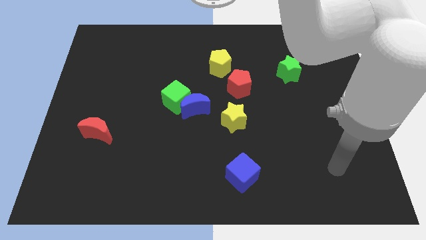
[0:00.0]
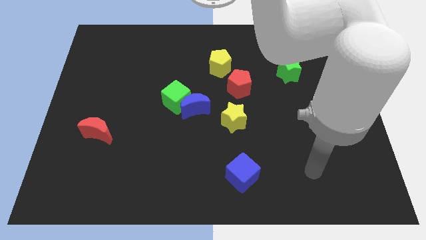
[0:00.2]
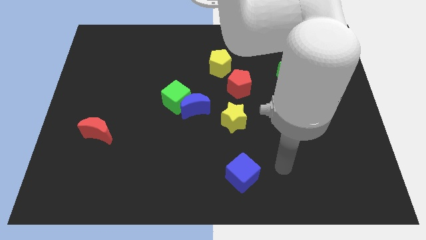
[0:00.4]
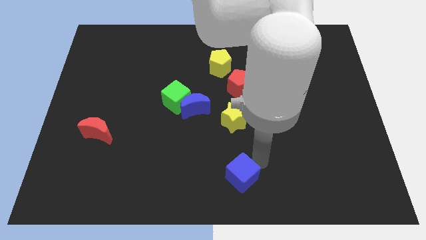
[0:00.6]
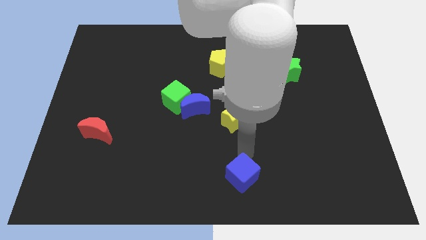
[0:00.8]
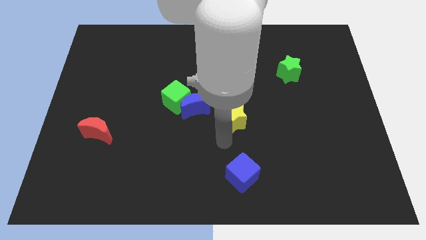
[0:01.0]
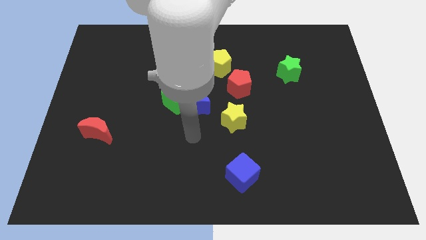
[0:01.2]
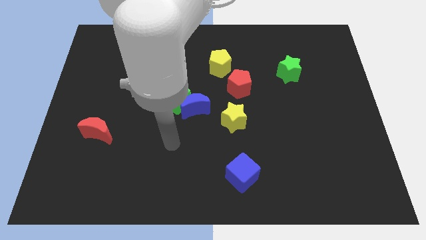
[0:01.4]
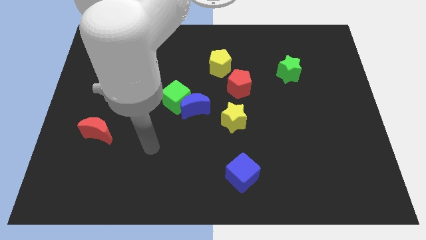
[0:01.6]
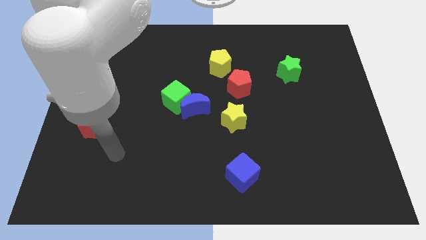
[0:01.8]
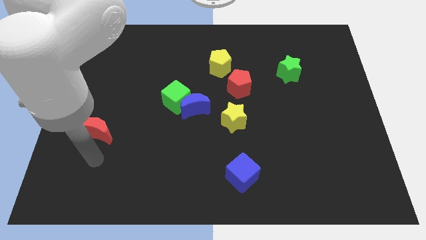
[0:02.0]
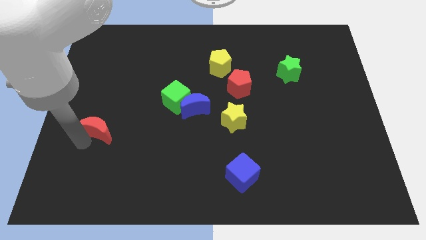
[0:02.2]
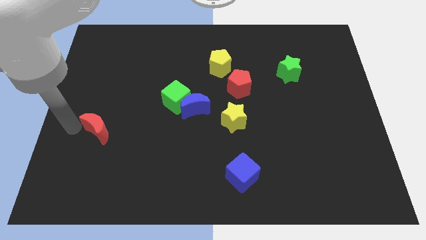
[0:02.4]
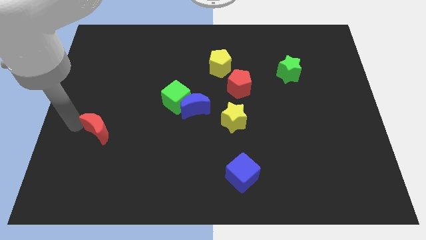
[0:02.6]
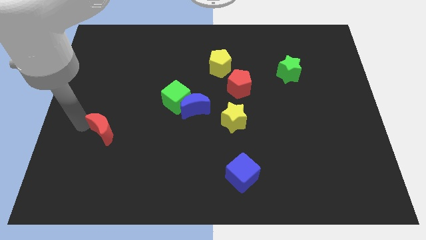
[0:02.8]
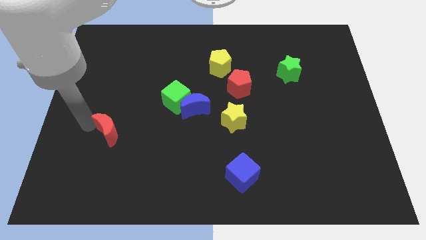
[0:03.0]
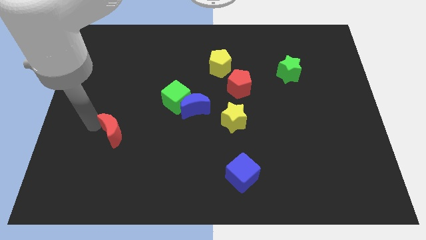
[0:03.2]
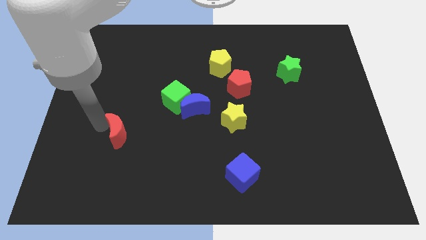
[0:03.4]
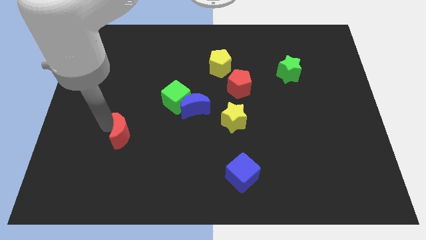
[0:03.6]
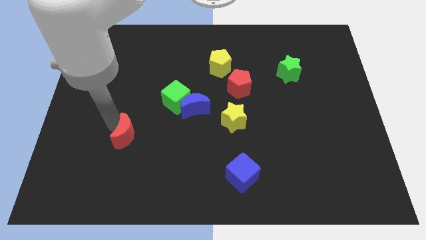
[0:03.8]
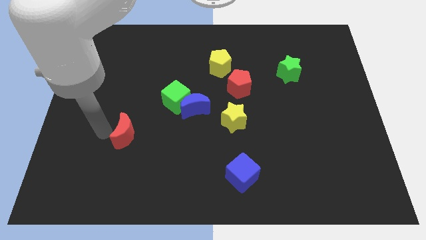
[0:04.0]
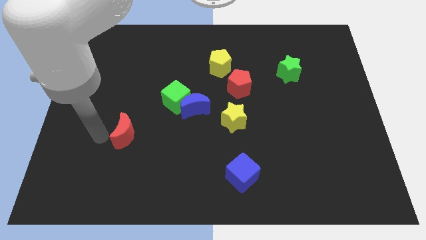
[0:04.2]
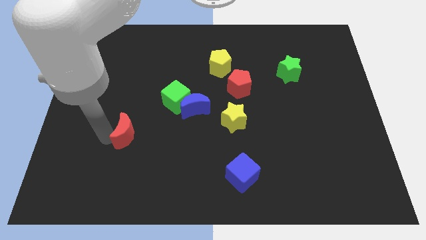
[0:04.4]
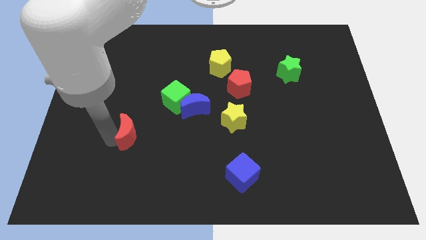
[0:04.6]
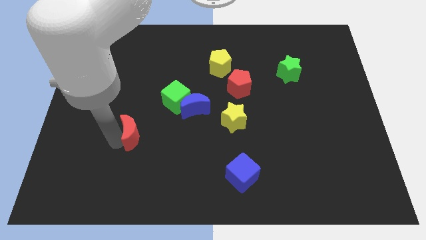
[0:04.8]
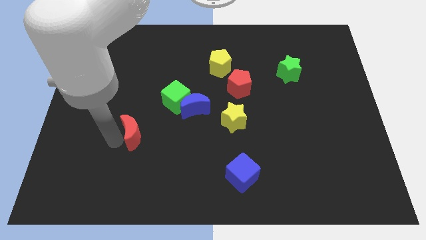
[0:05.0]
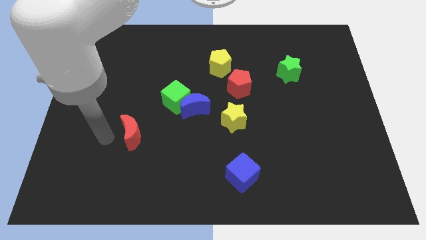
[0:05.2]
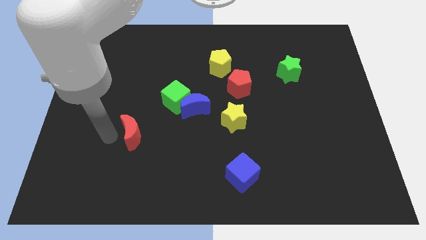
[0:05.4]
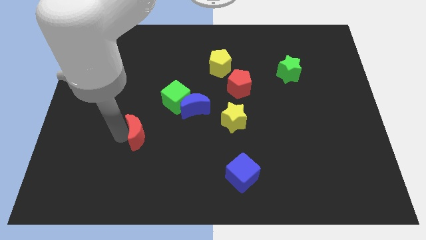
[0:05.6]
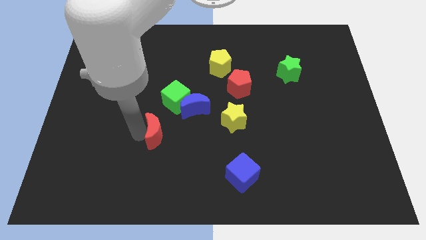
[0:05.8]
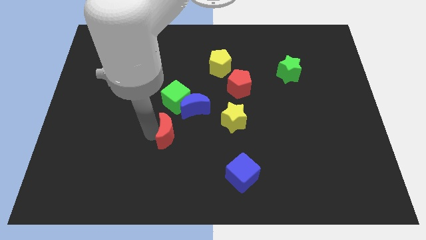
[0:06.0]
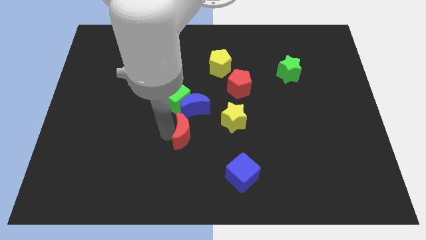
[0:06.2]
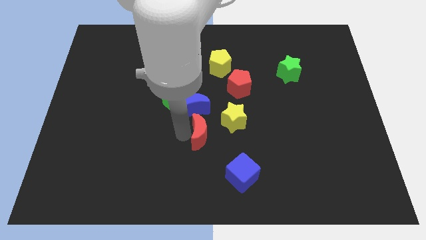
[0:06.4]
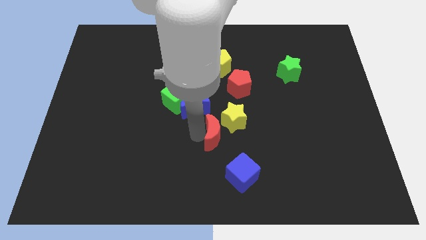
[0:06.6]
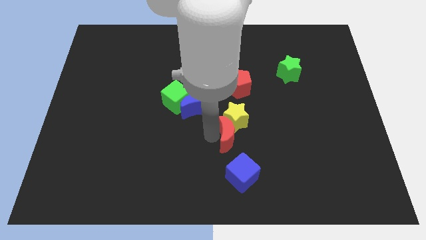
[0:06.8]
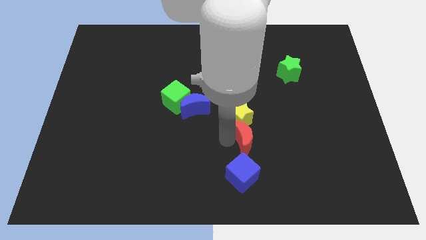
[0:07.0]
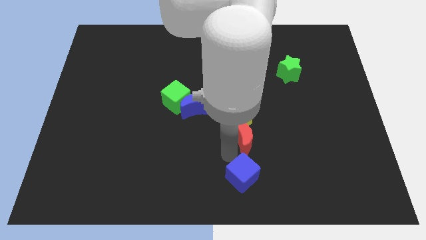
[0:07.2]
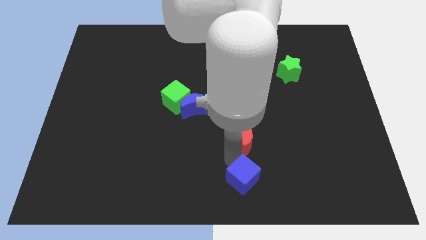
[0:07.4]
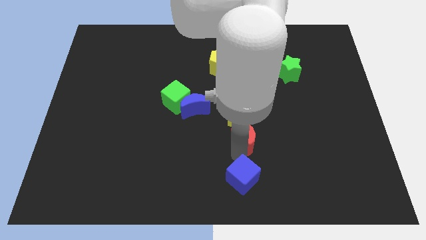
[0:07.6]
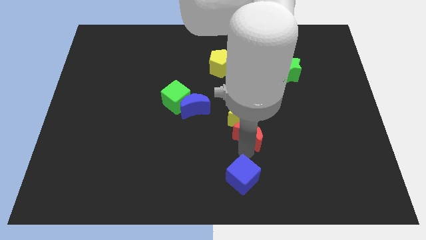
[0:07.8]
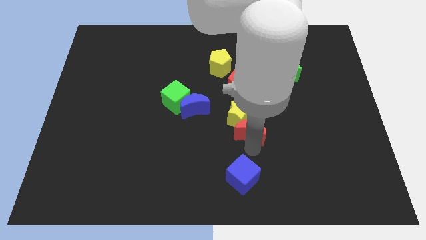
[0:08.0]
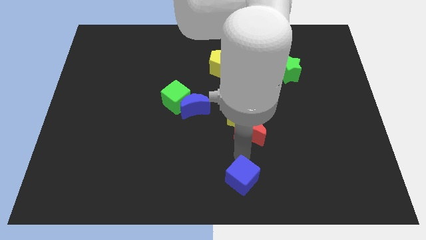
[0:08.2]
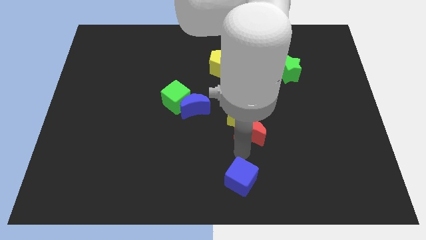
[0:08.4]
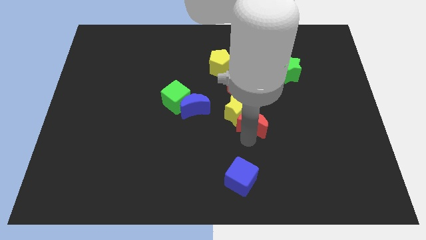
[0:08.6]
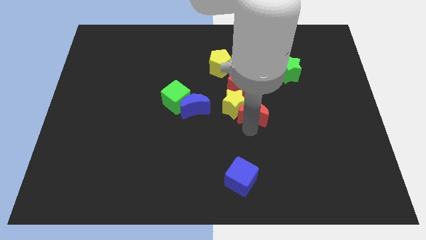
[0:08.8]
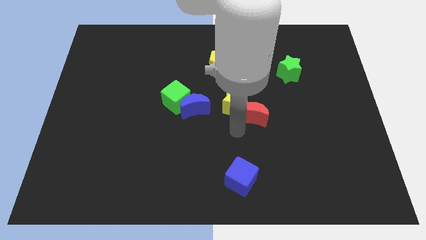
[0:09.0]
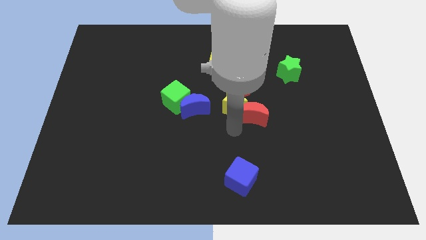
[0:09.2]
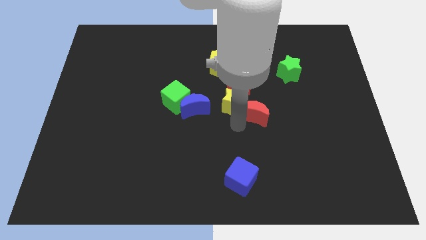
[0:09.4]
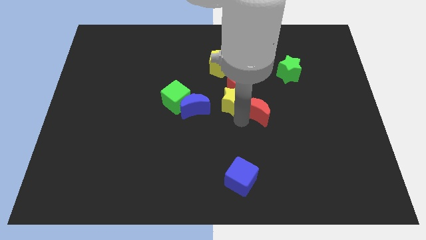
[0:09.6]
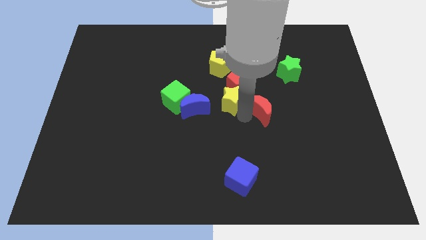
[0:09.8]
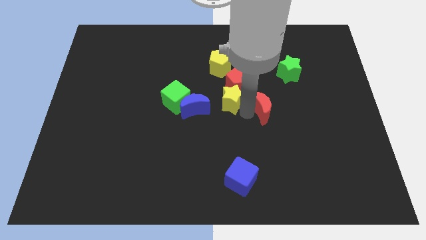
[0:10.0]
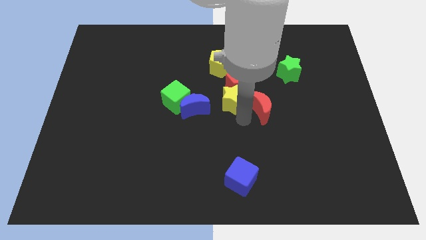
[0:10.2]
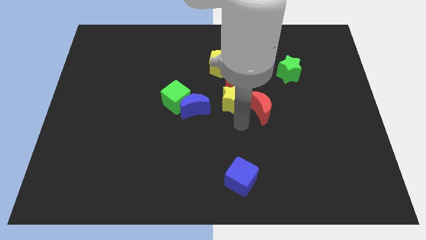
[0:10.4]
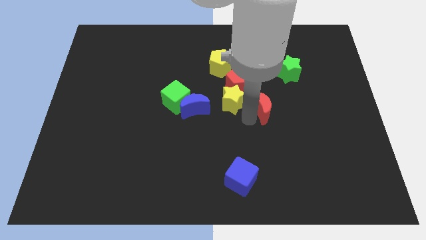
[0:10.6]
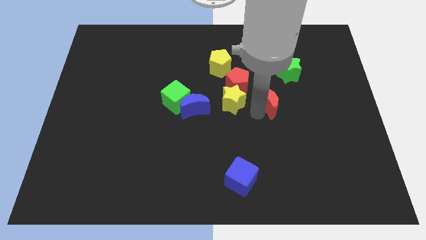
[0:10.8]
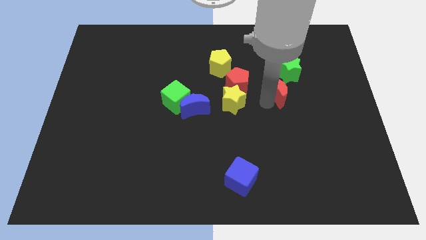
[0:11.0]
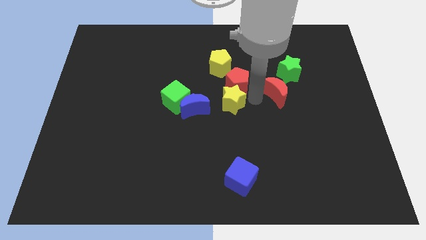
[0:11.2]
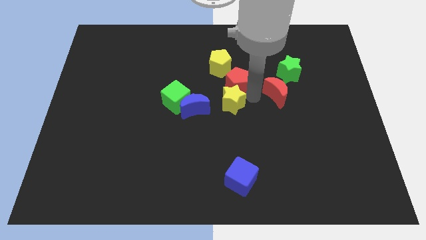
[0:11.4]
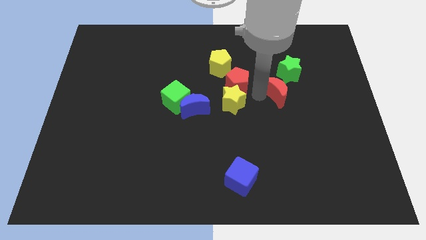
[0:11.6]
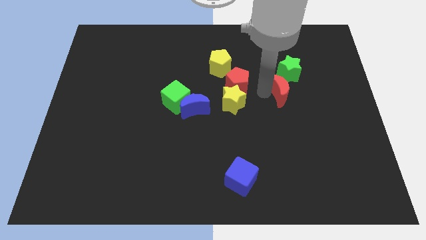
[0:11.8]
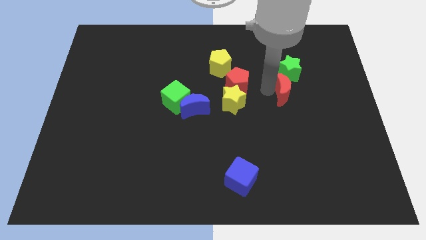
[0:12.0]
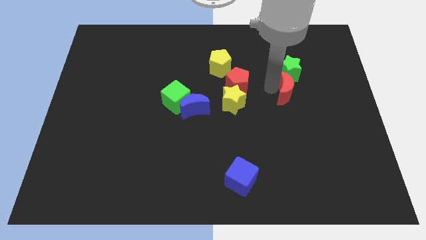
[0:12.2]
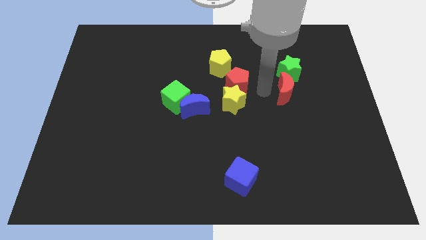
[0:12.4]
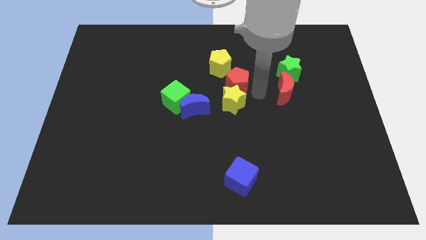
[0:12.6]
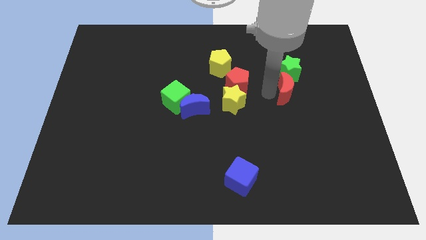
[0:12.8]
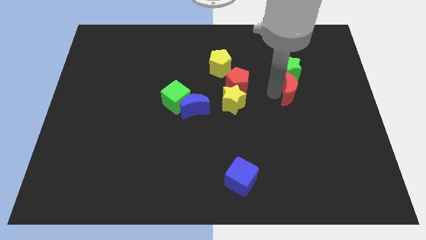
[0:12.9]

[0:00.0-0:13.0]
push the red moon to the bottom right side of the green star
